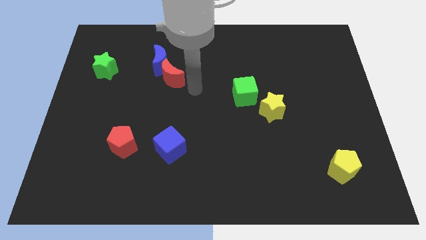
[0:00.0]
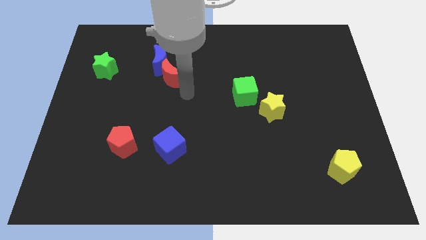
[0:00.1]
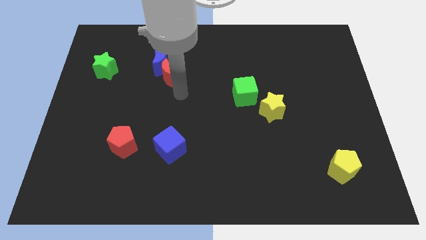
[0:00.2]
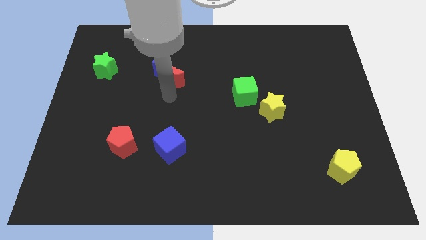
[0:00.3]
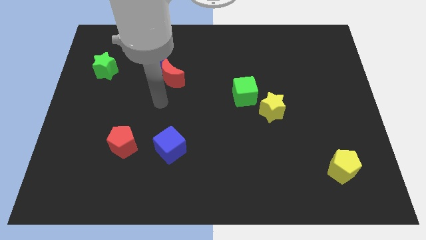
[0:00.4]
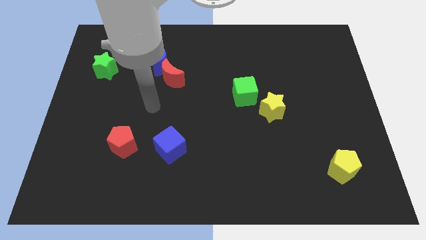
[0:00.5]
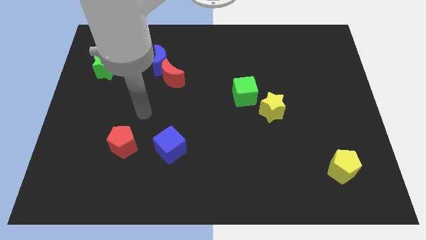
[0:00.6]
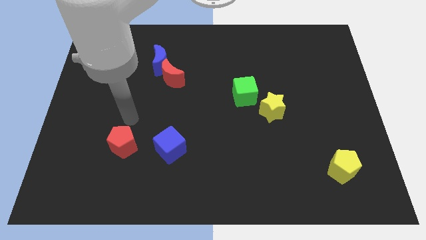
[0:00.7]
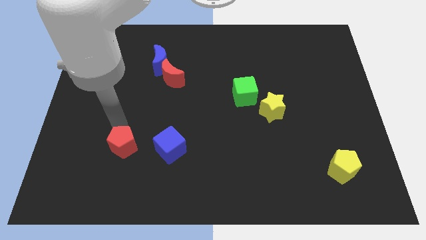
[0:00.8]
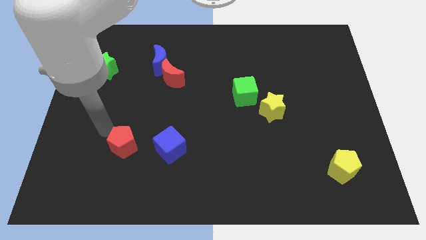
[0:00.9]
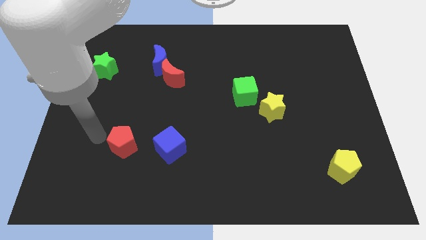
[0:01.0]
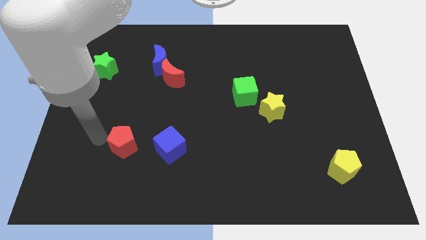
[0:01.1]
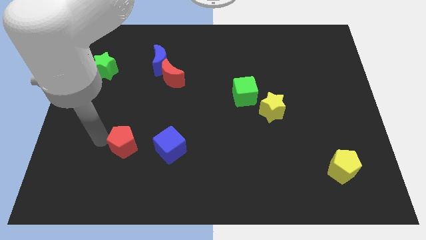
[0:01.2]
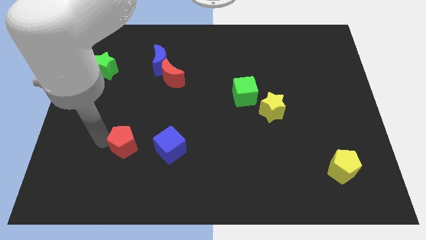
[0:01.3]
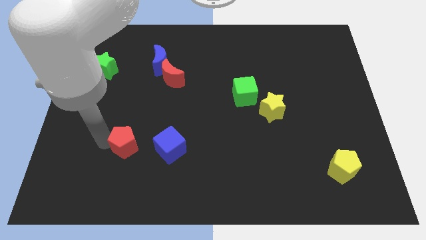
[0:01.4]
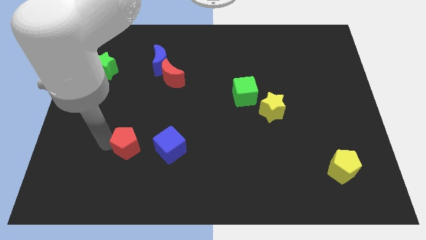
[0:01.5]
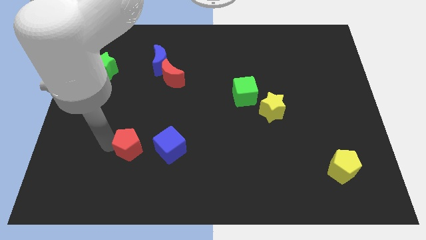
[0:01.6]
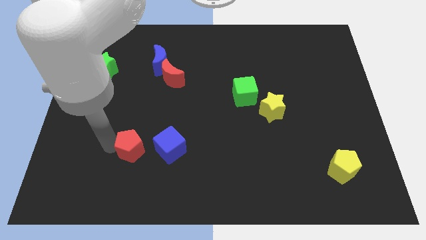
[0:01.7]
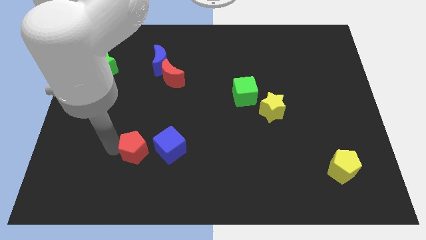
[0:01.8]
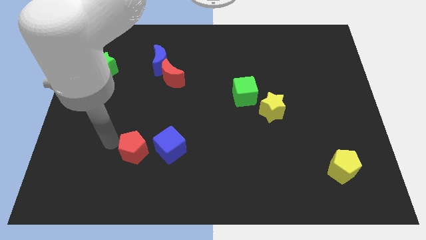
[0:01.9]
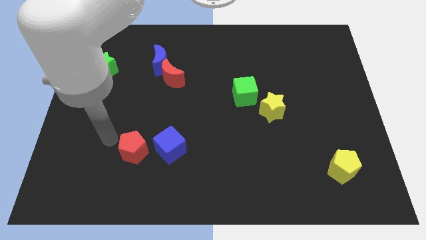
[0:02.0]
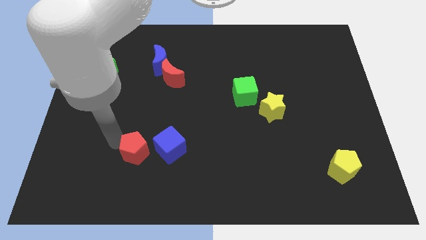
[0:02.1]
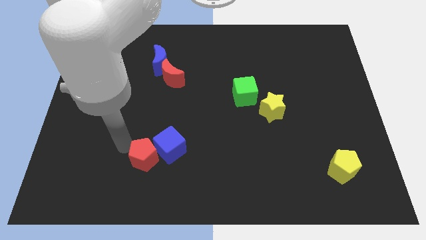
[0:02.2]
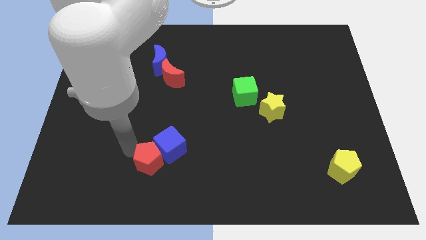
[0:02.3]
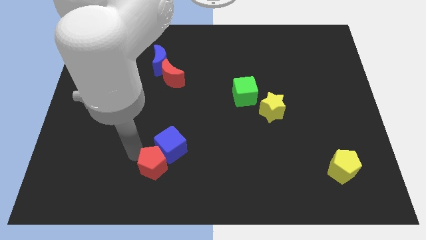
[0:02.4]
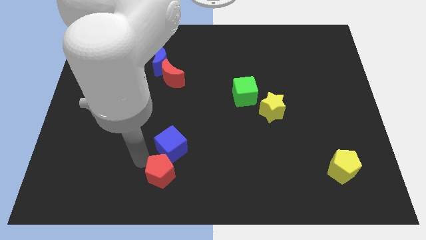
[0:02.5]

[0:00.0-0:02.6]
move the red pentagon right a bit

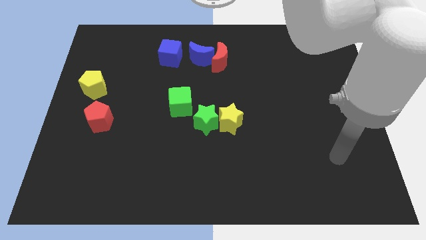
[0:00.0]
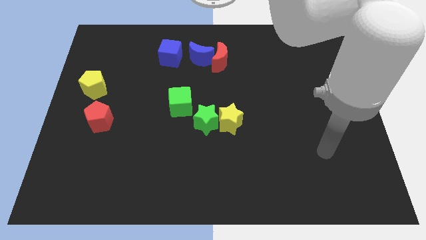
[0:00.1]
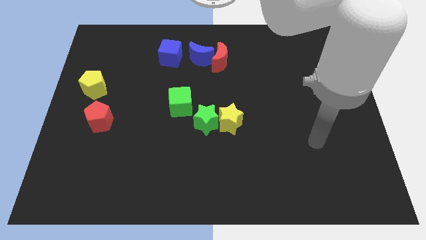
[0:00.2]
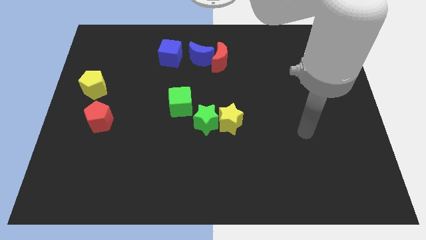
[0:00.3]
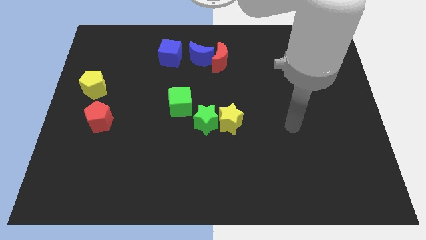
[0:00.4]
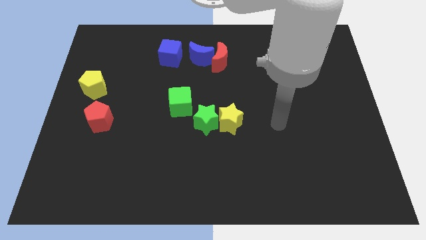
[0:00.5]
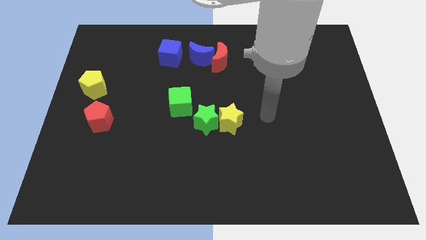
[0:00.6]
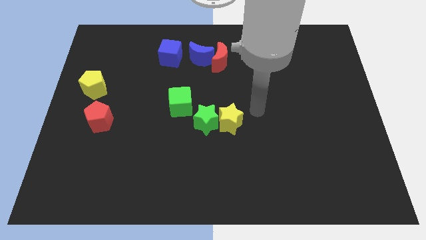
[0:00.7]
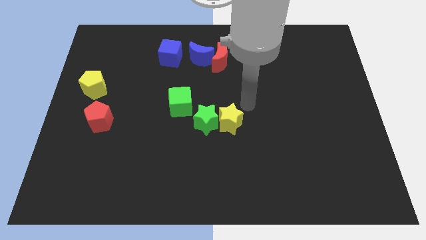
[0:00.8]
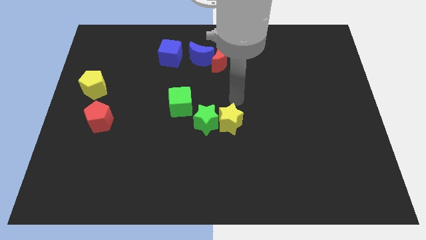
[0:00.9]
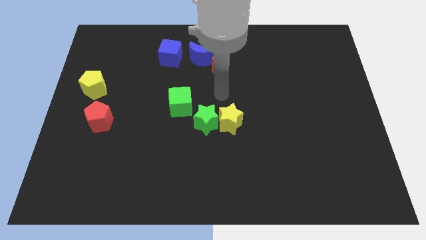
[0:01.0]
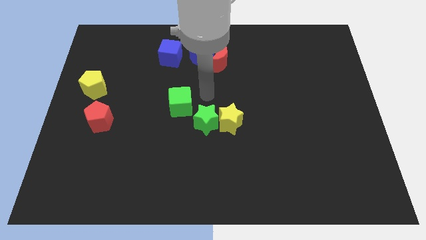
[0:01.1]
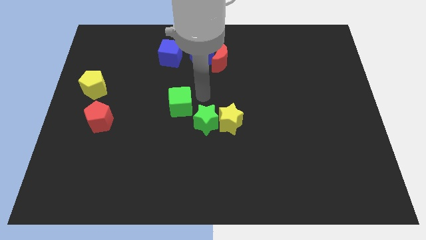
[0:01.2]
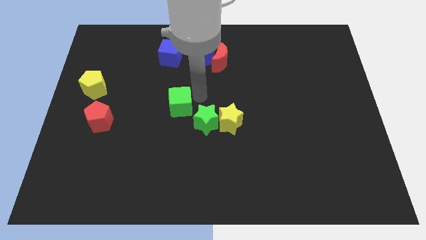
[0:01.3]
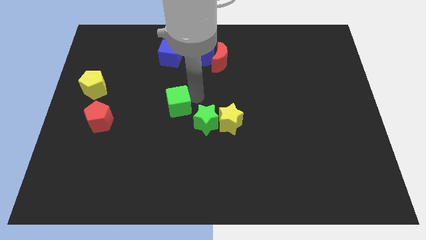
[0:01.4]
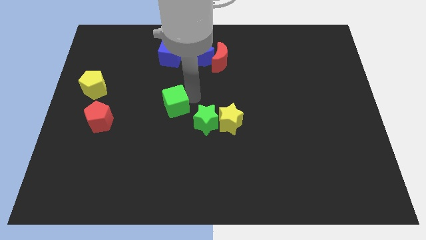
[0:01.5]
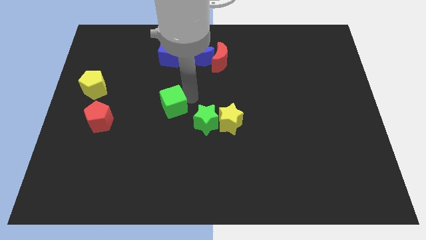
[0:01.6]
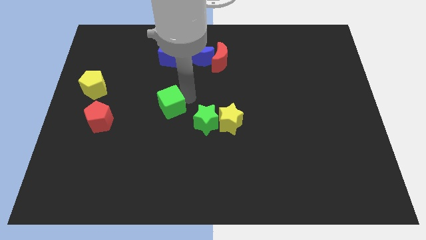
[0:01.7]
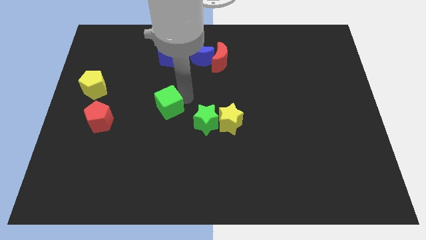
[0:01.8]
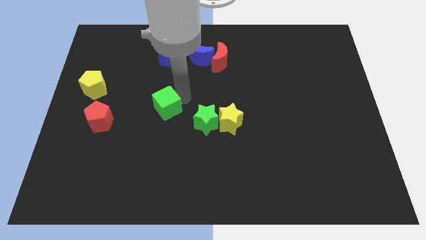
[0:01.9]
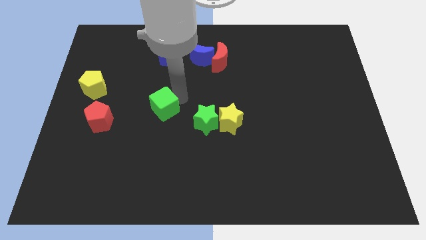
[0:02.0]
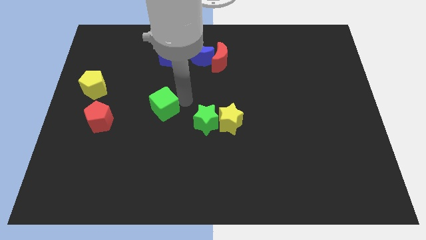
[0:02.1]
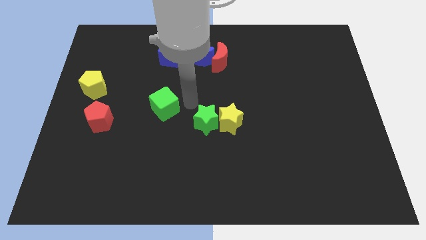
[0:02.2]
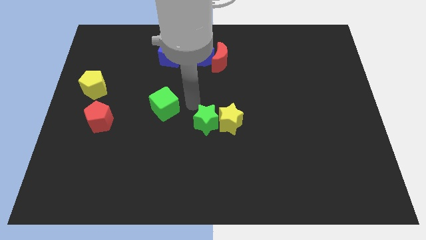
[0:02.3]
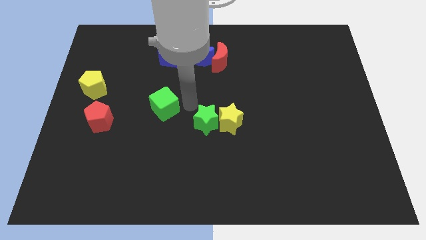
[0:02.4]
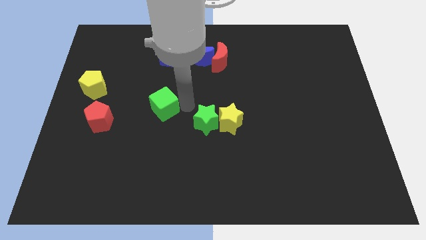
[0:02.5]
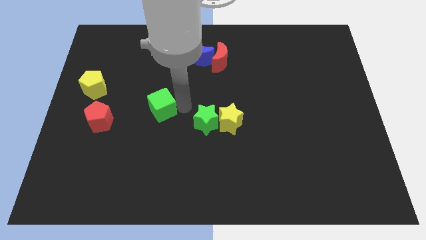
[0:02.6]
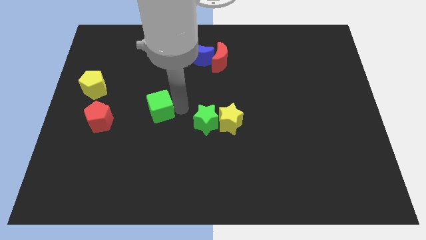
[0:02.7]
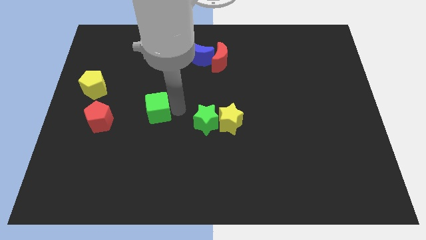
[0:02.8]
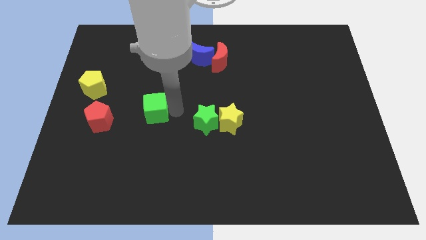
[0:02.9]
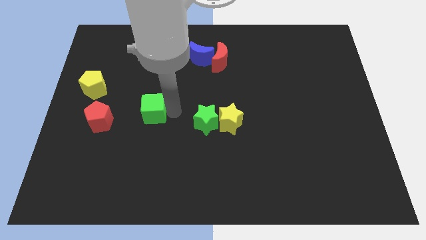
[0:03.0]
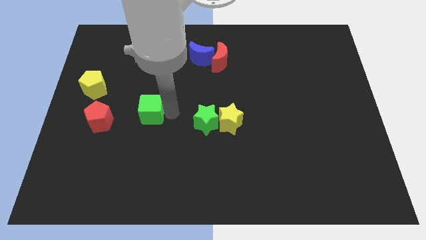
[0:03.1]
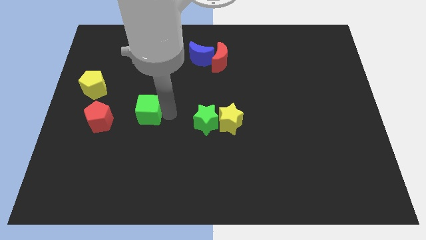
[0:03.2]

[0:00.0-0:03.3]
slightly move the green cube to the left

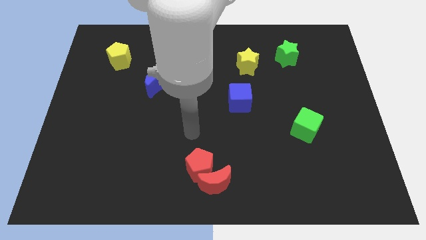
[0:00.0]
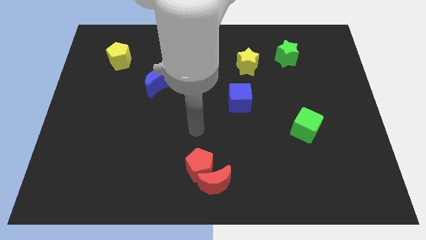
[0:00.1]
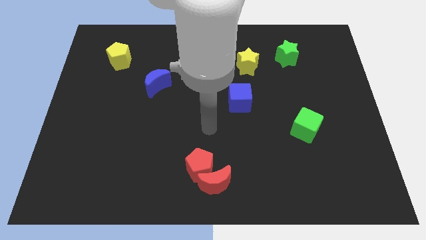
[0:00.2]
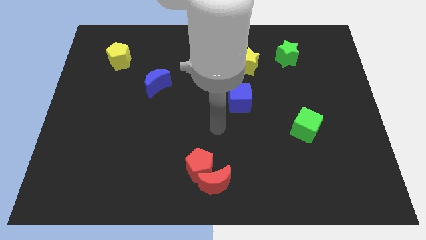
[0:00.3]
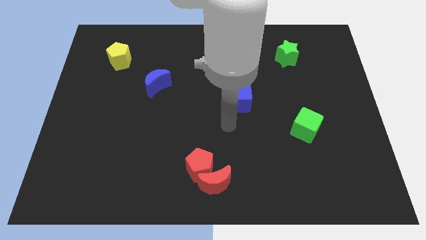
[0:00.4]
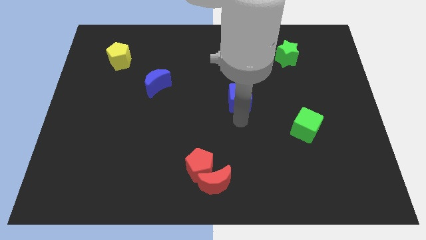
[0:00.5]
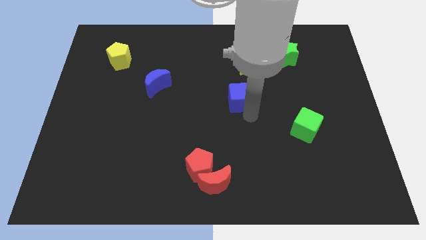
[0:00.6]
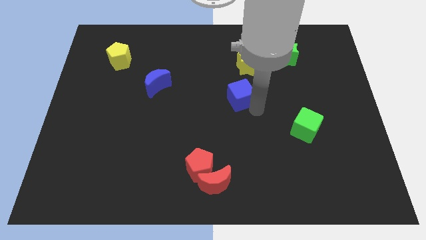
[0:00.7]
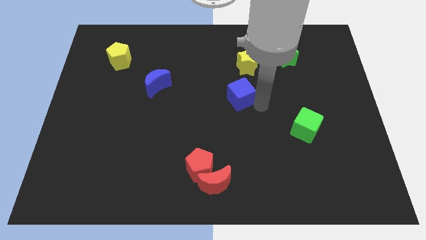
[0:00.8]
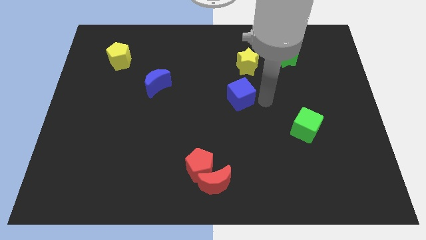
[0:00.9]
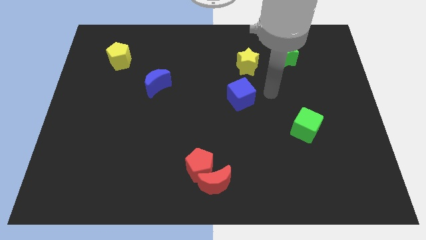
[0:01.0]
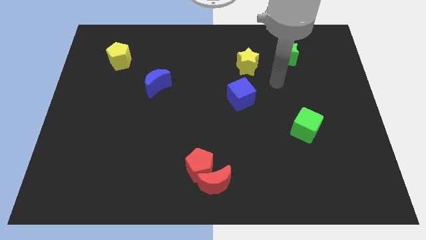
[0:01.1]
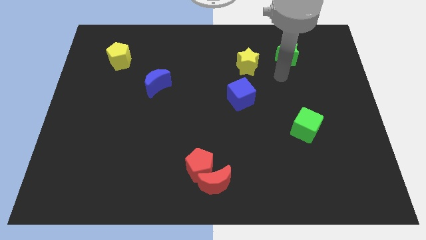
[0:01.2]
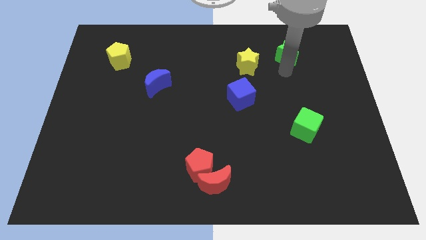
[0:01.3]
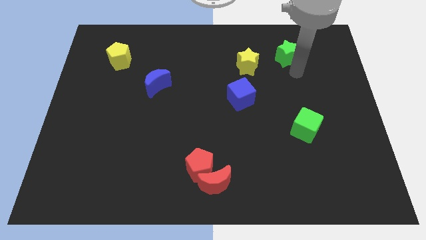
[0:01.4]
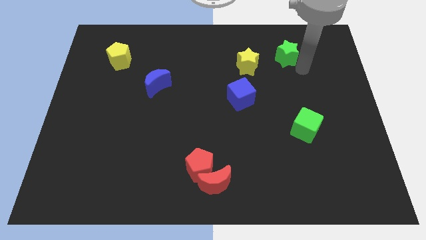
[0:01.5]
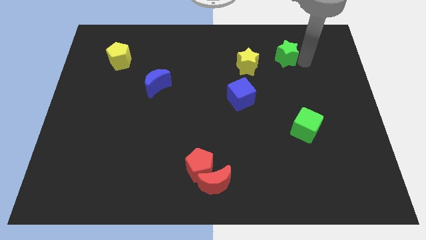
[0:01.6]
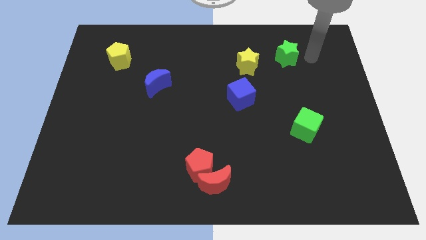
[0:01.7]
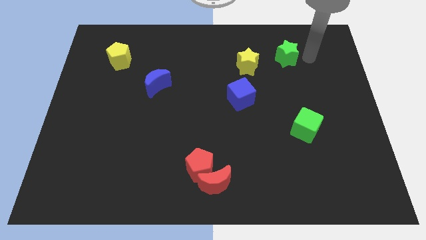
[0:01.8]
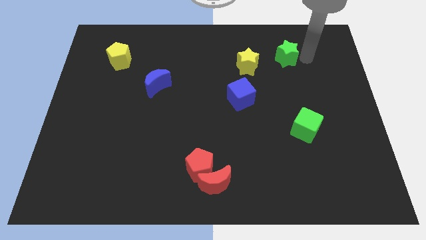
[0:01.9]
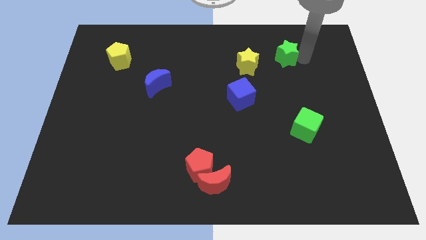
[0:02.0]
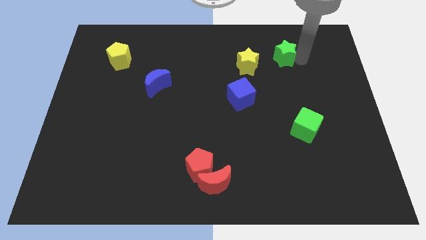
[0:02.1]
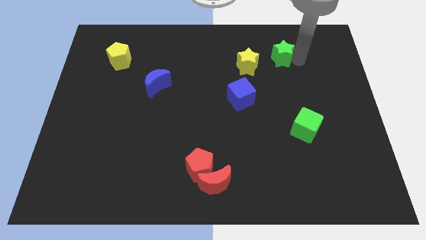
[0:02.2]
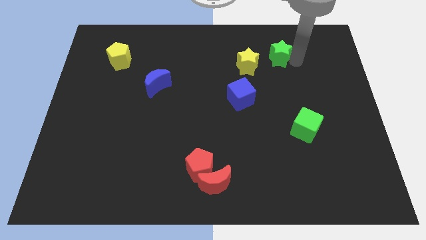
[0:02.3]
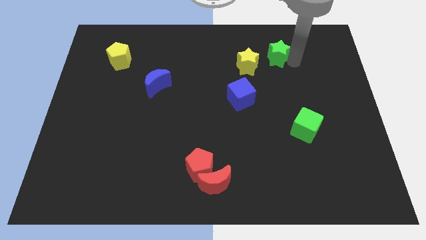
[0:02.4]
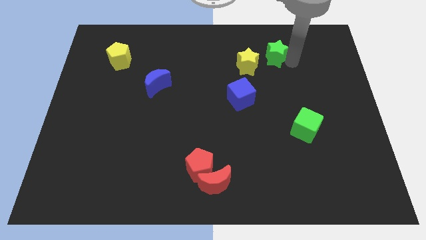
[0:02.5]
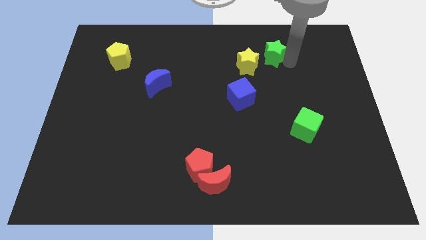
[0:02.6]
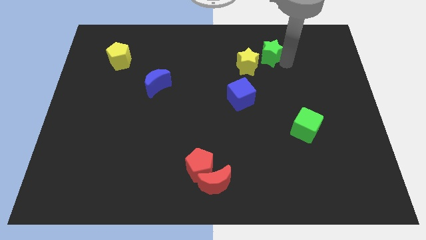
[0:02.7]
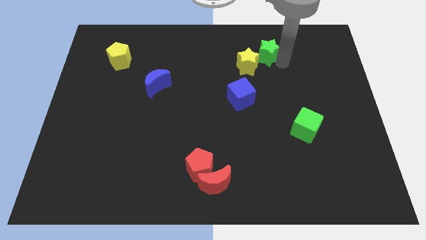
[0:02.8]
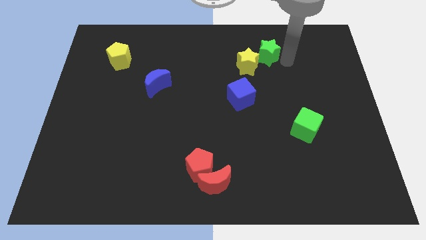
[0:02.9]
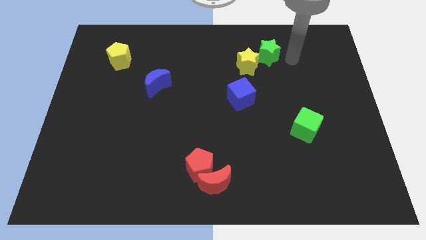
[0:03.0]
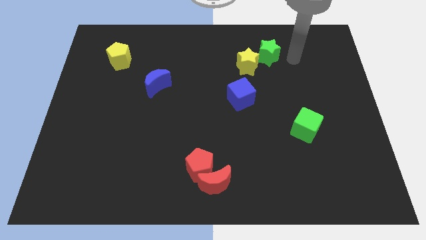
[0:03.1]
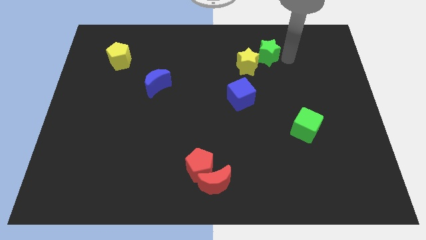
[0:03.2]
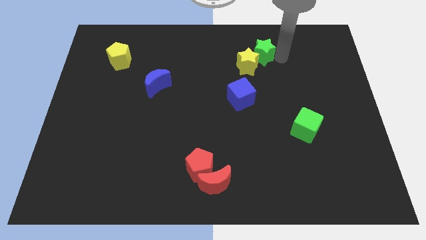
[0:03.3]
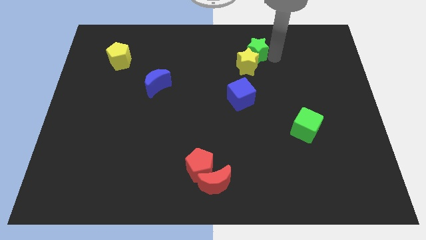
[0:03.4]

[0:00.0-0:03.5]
slightly slide the green star left
